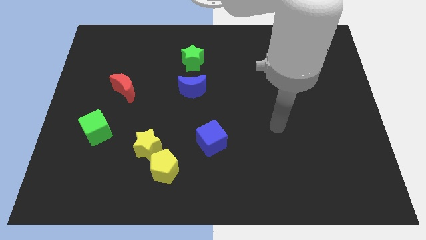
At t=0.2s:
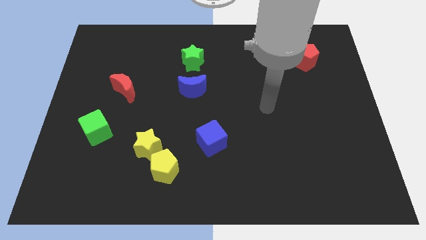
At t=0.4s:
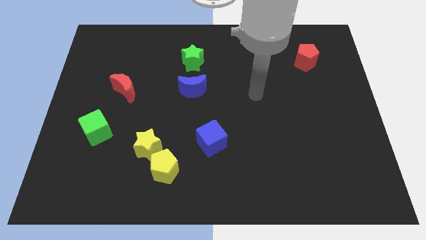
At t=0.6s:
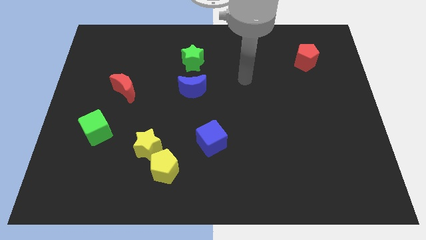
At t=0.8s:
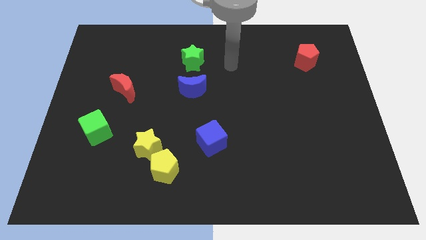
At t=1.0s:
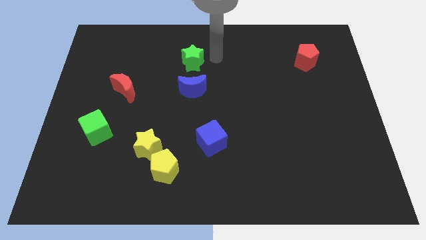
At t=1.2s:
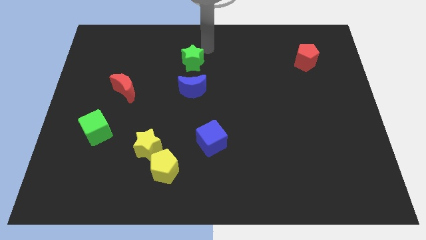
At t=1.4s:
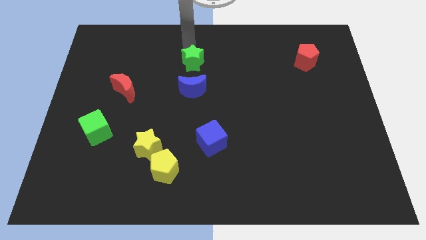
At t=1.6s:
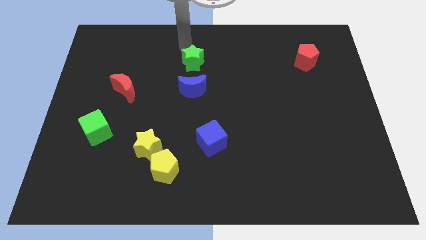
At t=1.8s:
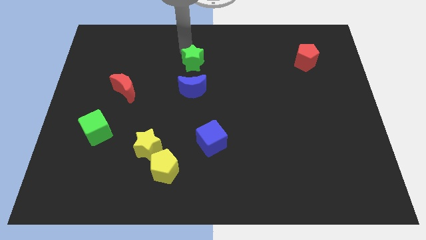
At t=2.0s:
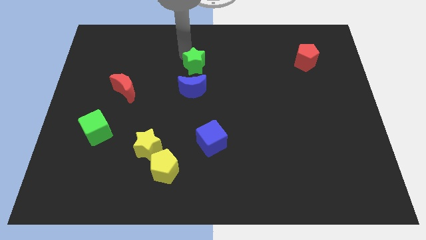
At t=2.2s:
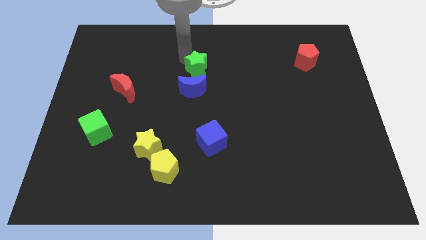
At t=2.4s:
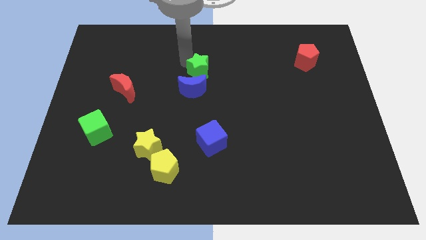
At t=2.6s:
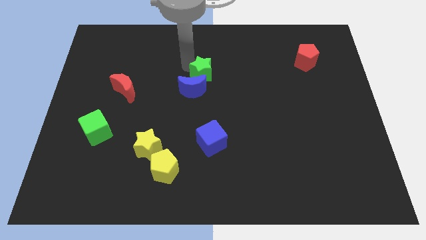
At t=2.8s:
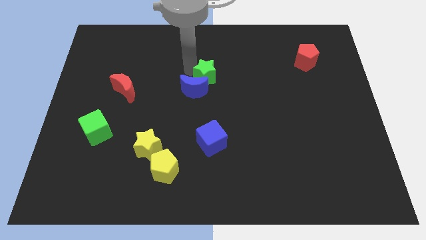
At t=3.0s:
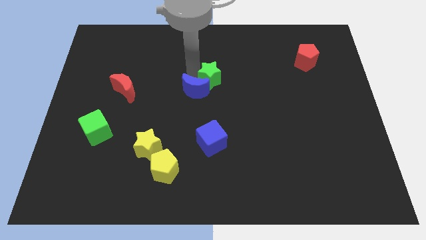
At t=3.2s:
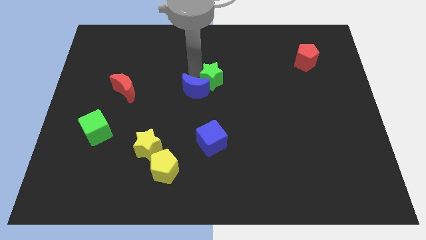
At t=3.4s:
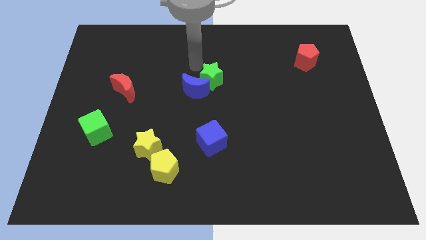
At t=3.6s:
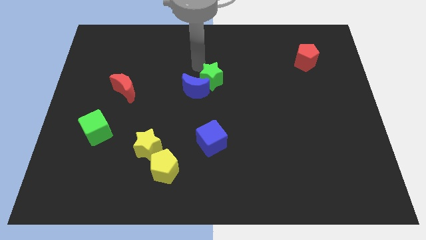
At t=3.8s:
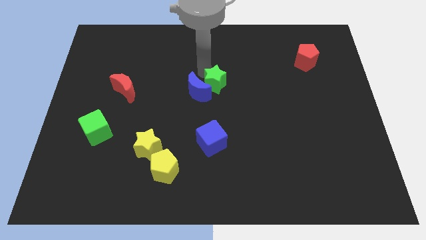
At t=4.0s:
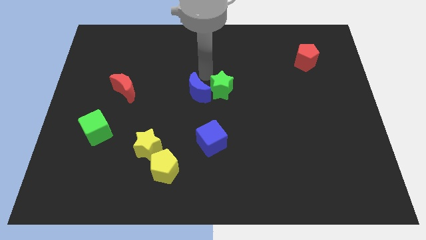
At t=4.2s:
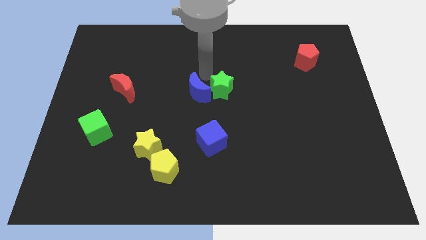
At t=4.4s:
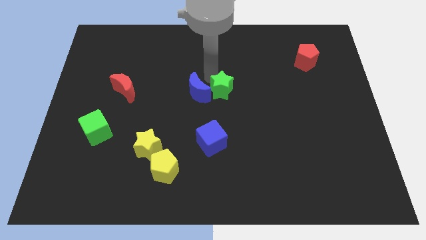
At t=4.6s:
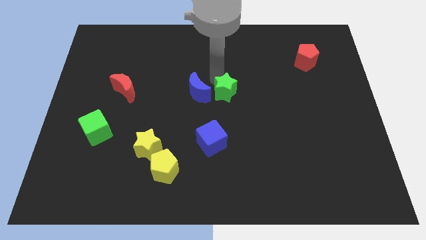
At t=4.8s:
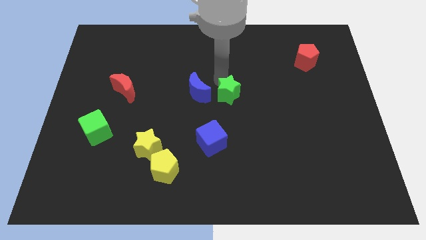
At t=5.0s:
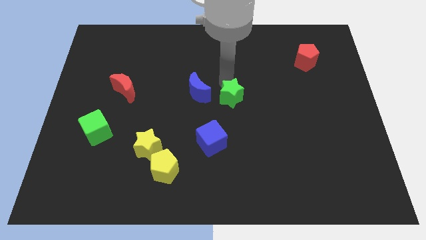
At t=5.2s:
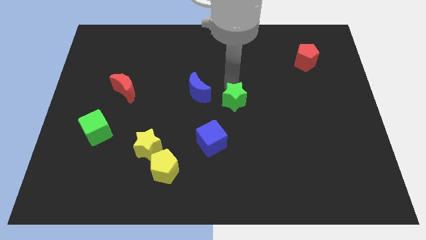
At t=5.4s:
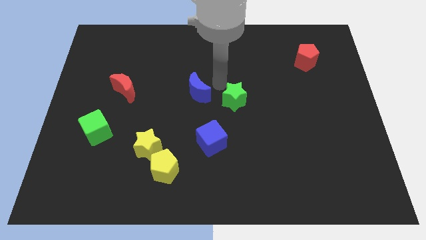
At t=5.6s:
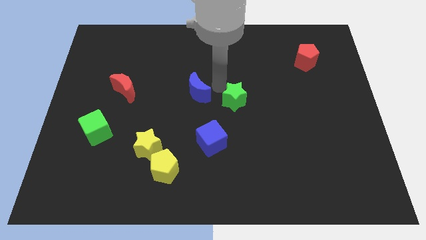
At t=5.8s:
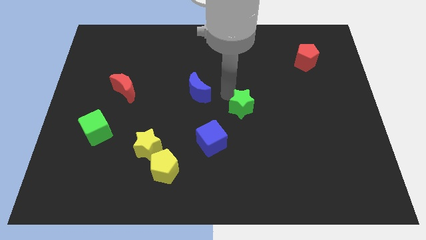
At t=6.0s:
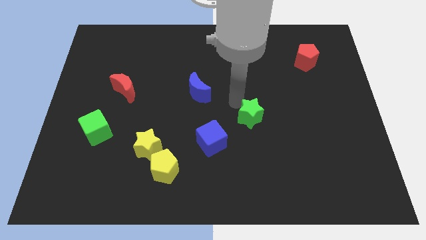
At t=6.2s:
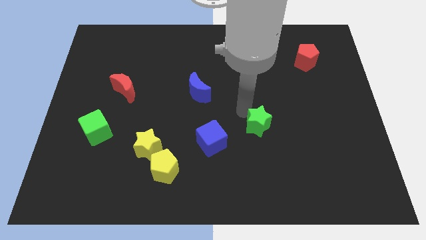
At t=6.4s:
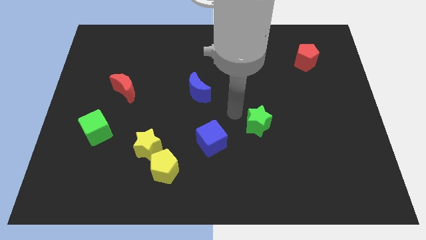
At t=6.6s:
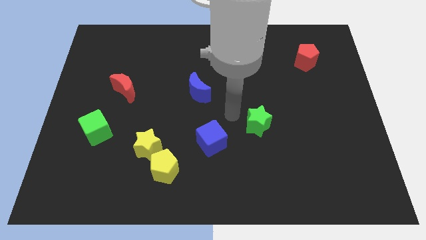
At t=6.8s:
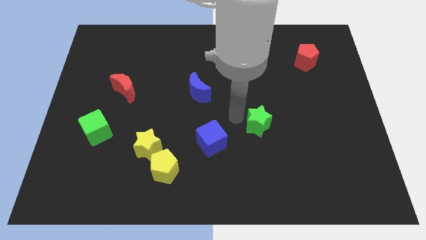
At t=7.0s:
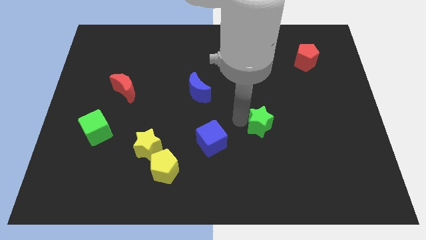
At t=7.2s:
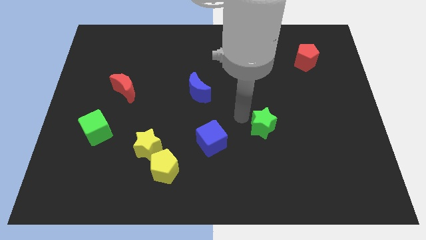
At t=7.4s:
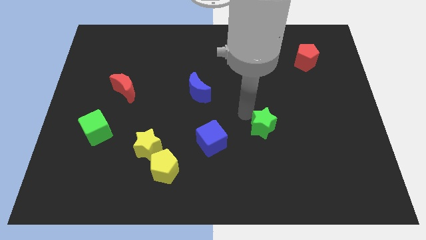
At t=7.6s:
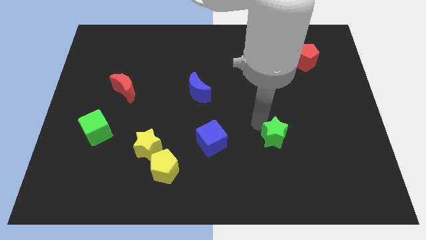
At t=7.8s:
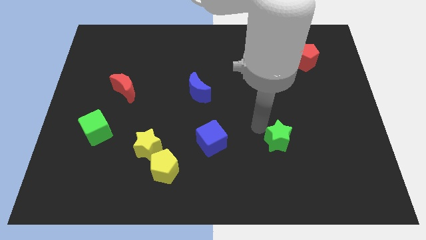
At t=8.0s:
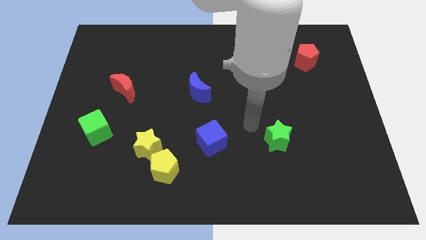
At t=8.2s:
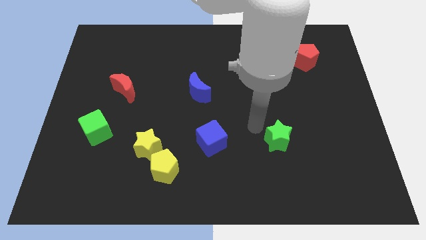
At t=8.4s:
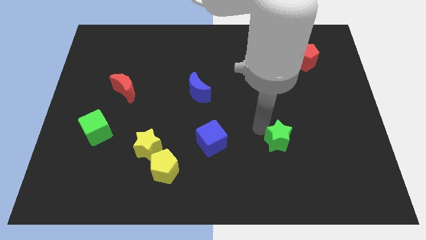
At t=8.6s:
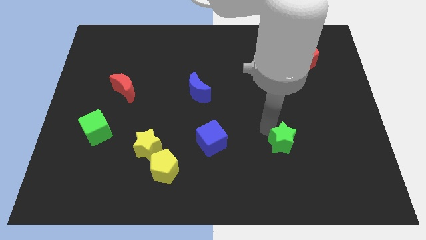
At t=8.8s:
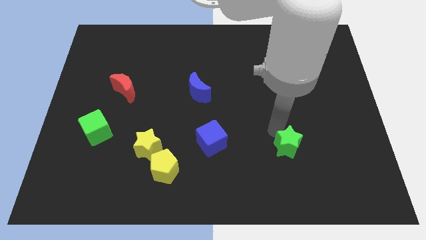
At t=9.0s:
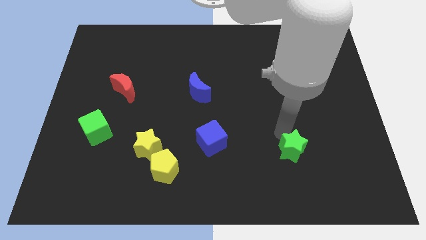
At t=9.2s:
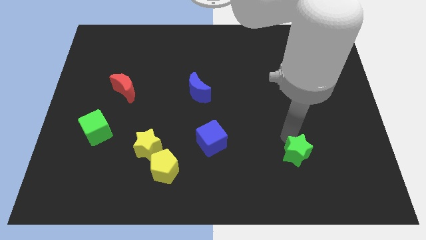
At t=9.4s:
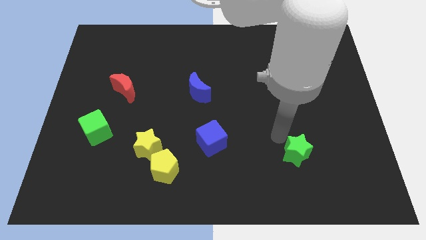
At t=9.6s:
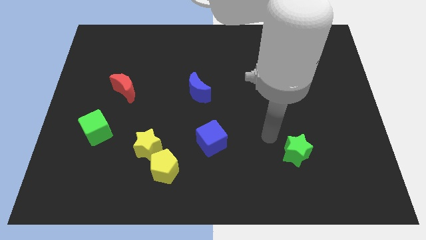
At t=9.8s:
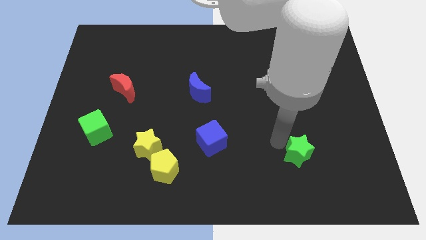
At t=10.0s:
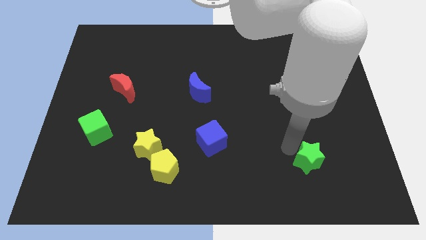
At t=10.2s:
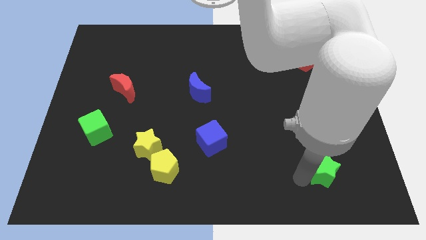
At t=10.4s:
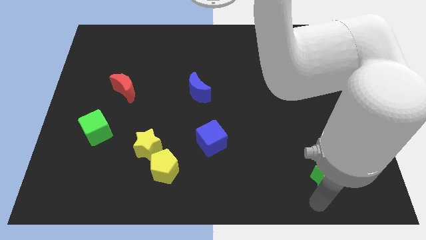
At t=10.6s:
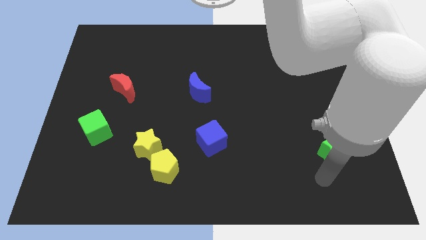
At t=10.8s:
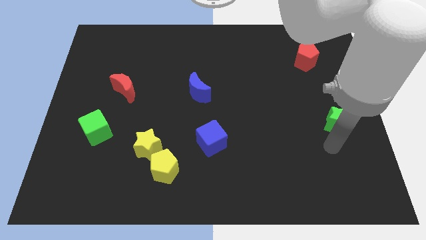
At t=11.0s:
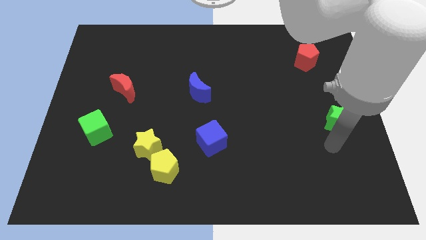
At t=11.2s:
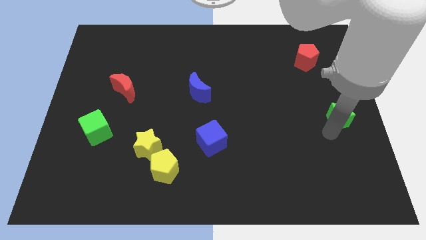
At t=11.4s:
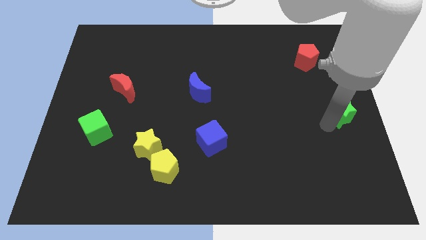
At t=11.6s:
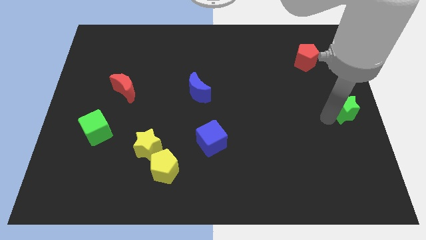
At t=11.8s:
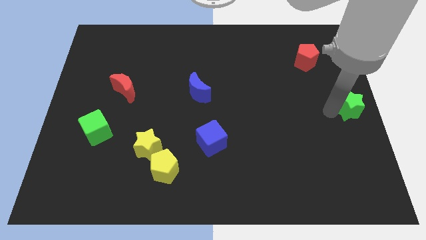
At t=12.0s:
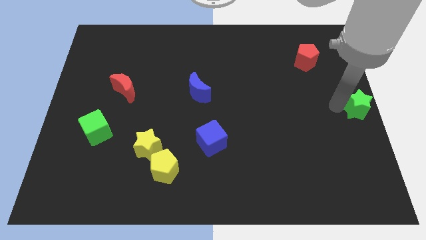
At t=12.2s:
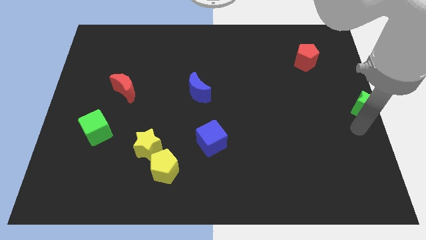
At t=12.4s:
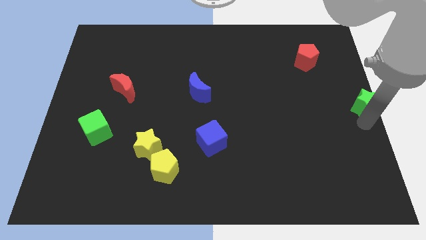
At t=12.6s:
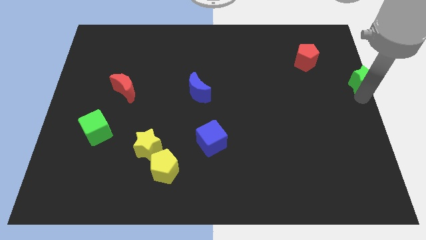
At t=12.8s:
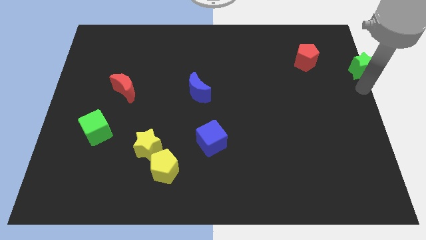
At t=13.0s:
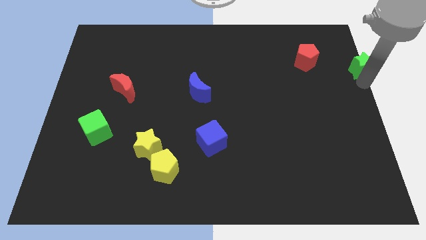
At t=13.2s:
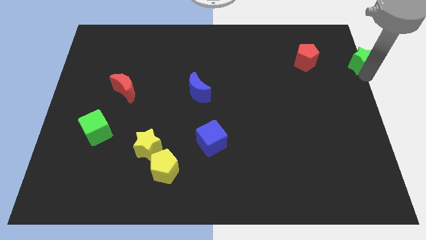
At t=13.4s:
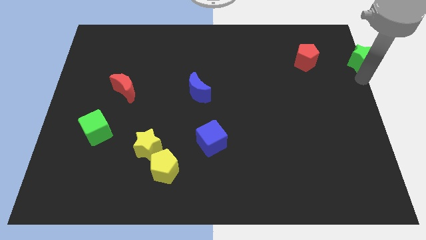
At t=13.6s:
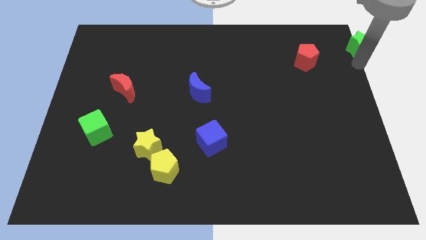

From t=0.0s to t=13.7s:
push the green star to the top right corner

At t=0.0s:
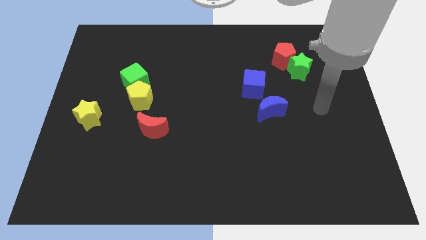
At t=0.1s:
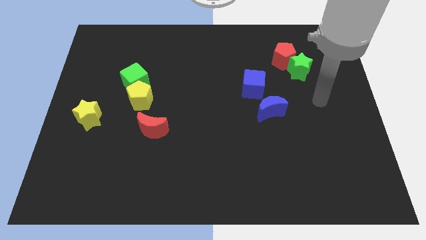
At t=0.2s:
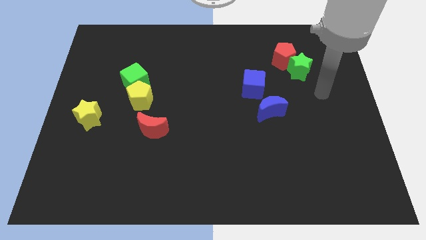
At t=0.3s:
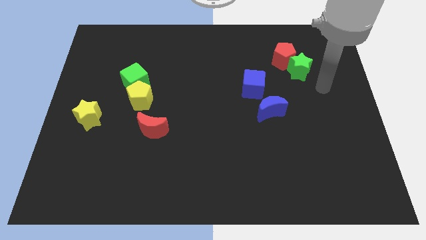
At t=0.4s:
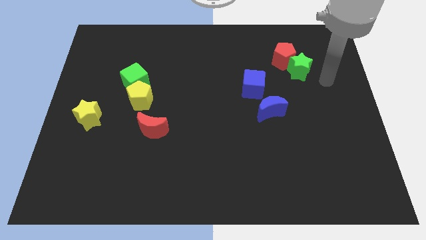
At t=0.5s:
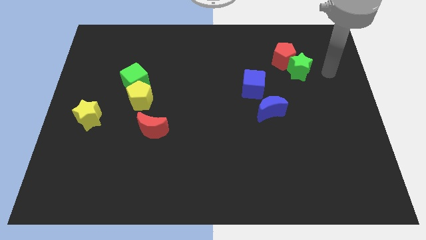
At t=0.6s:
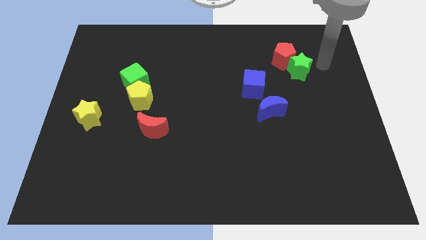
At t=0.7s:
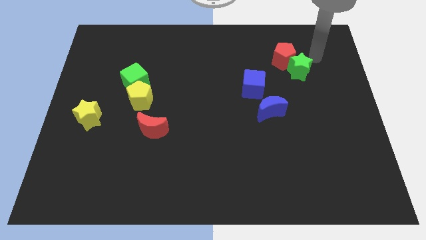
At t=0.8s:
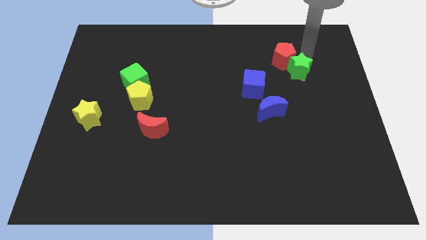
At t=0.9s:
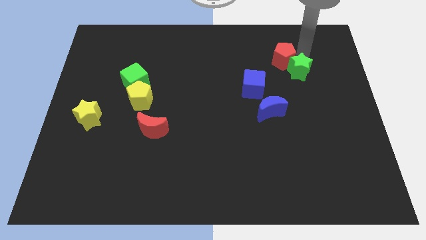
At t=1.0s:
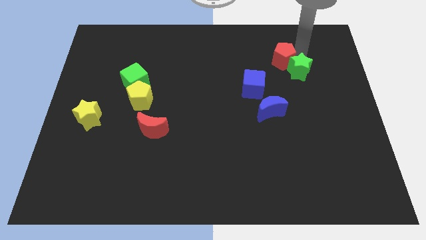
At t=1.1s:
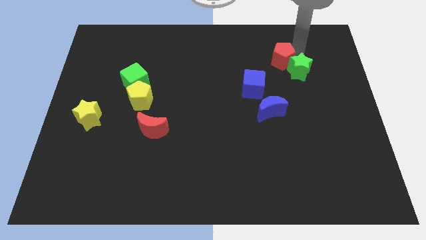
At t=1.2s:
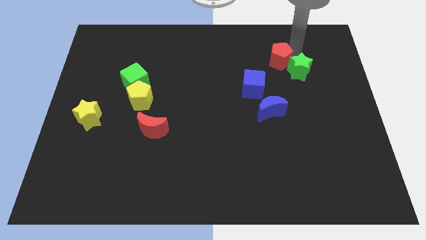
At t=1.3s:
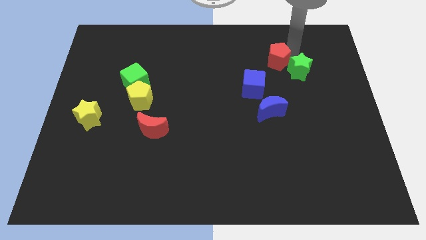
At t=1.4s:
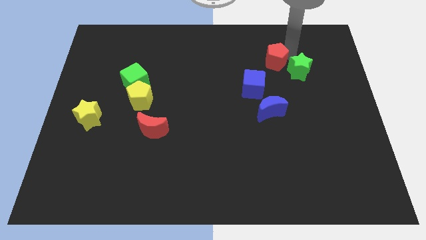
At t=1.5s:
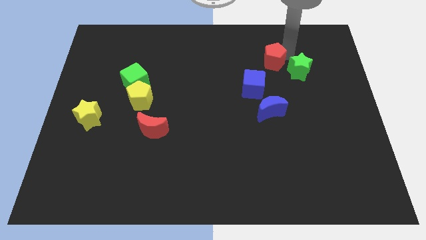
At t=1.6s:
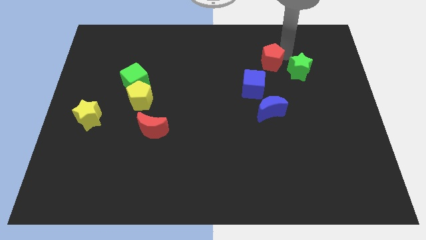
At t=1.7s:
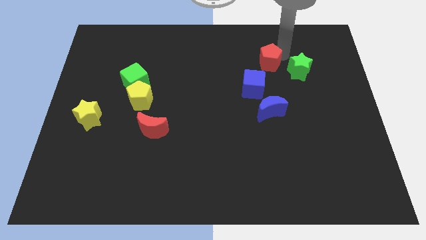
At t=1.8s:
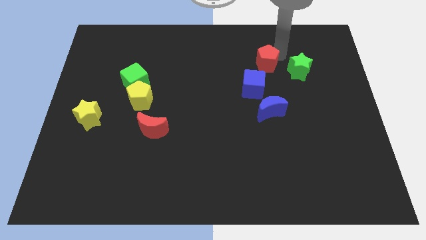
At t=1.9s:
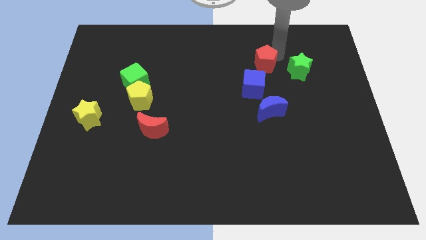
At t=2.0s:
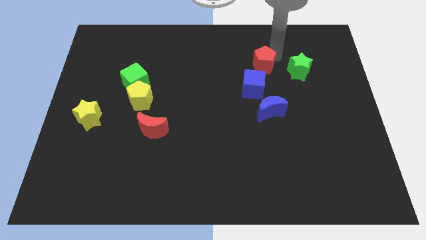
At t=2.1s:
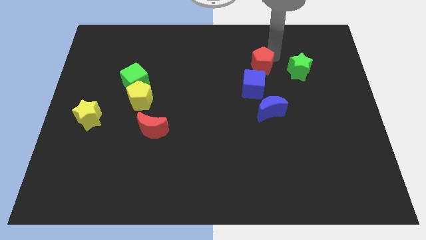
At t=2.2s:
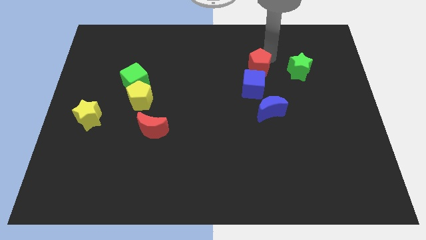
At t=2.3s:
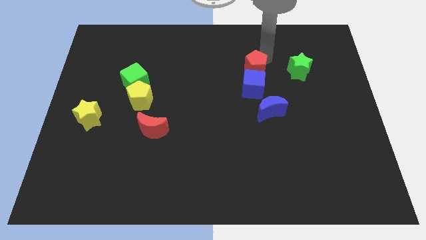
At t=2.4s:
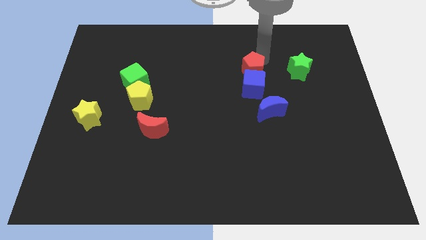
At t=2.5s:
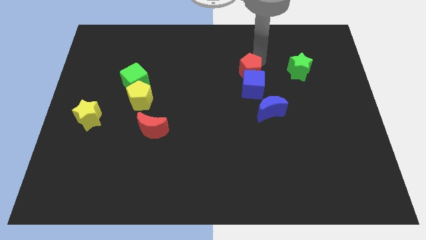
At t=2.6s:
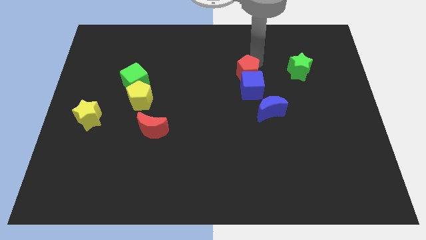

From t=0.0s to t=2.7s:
move the red pentagon to the middle
